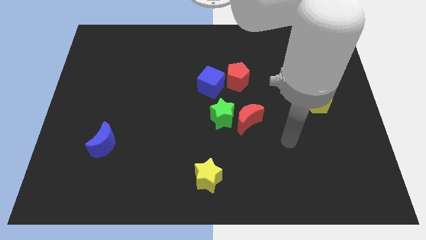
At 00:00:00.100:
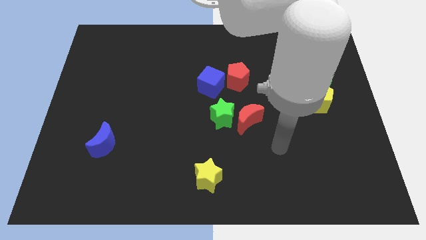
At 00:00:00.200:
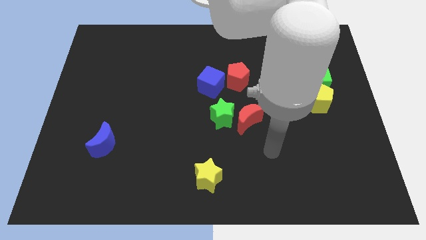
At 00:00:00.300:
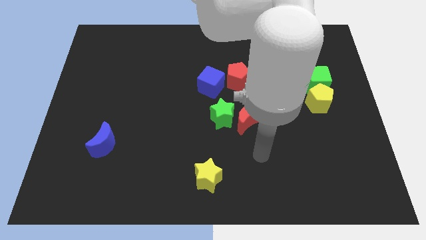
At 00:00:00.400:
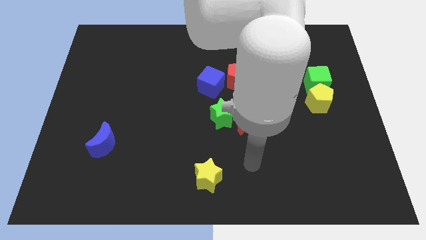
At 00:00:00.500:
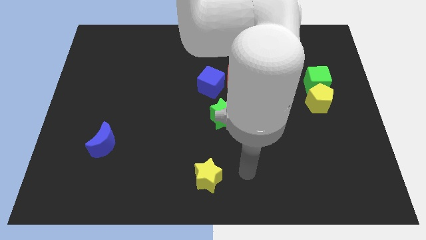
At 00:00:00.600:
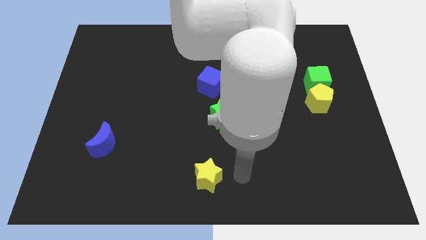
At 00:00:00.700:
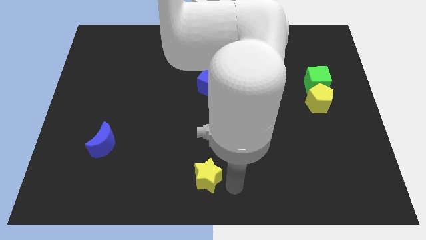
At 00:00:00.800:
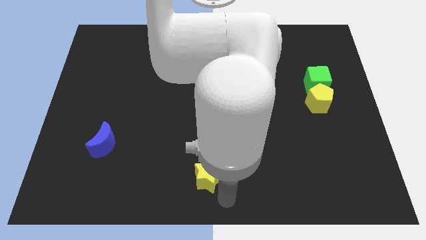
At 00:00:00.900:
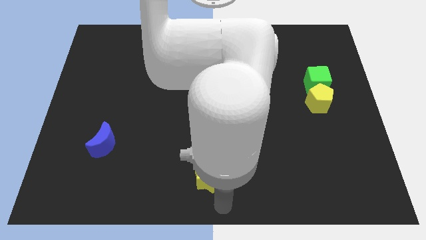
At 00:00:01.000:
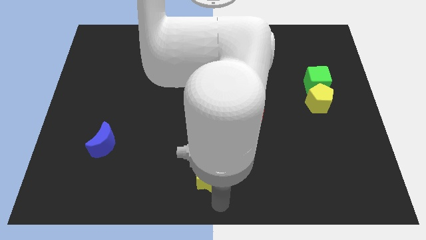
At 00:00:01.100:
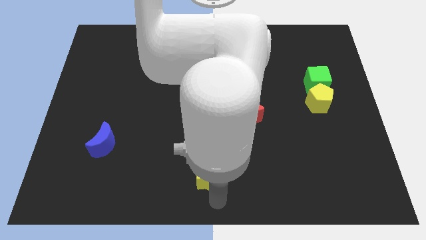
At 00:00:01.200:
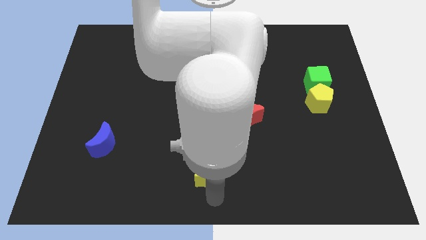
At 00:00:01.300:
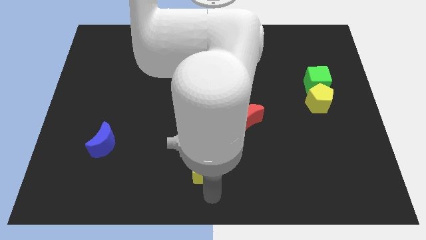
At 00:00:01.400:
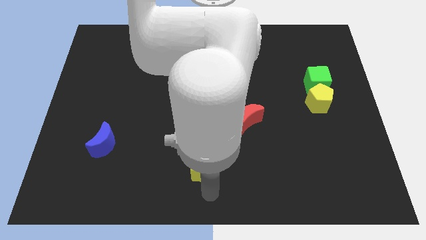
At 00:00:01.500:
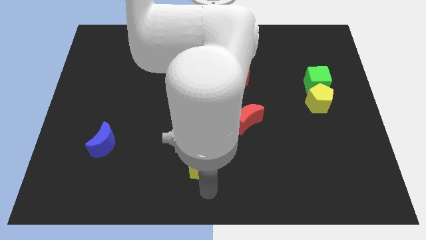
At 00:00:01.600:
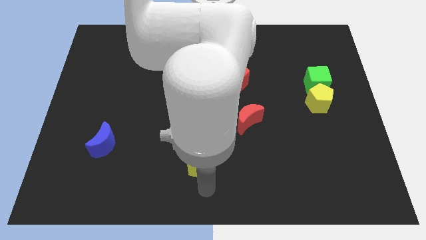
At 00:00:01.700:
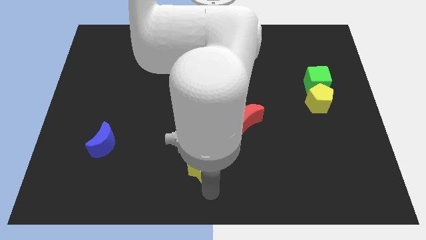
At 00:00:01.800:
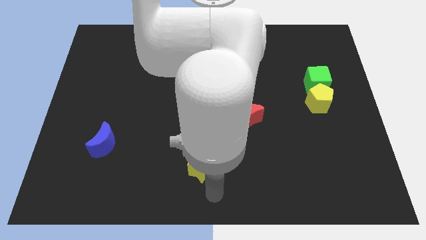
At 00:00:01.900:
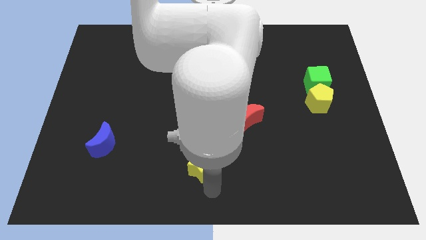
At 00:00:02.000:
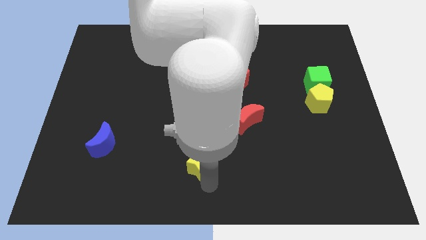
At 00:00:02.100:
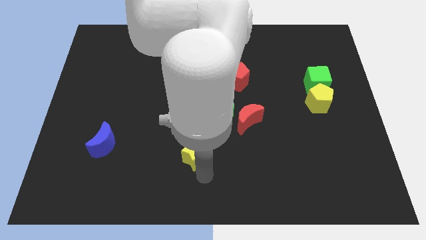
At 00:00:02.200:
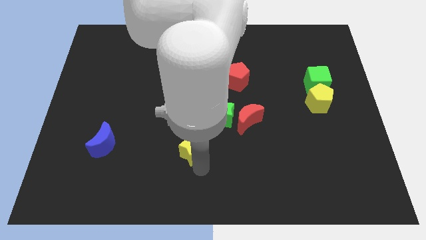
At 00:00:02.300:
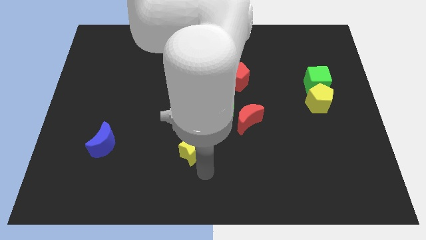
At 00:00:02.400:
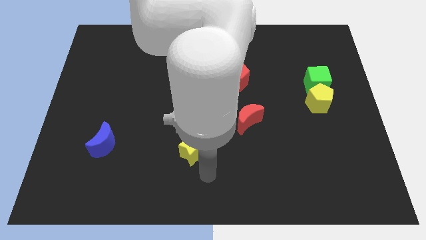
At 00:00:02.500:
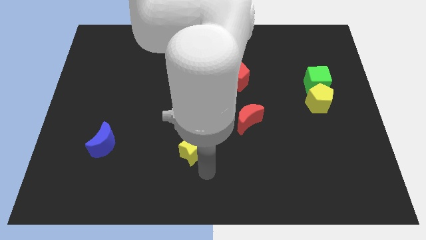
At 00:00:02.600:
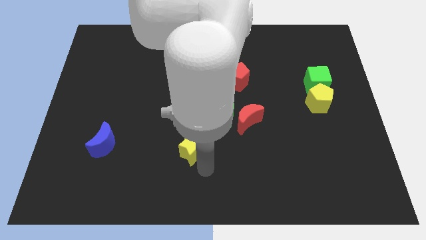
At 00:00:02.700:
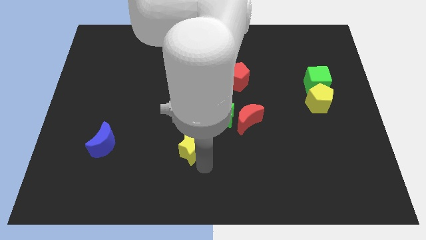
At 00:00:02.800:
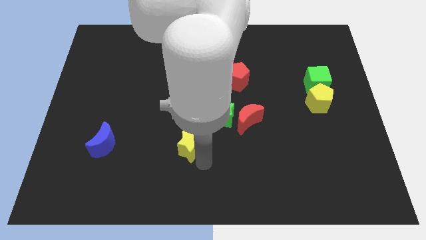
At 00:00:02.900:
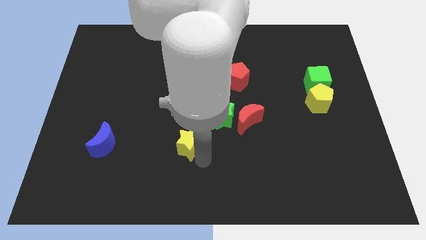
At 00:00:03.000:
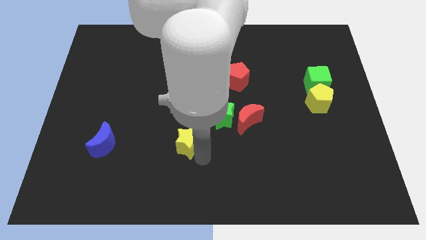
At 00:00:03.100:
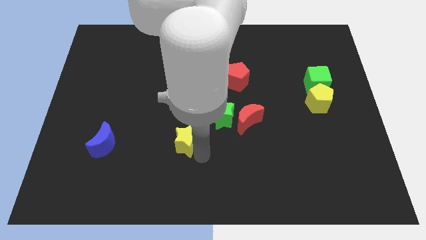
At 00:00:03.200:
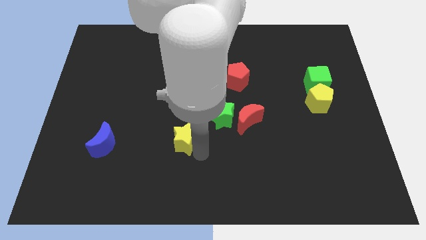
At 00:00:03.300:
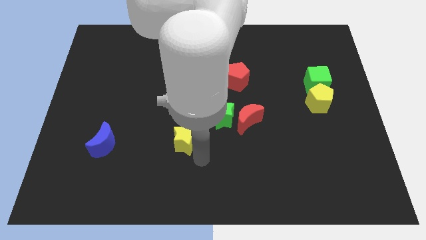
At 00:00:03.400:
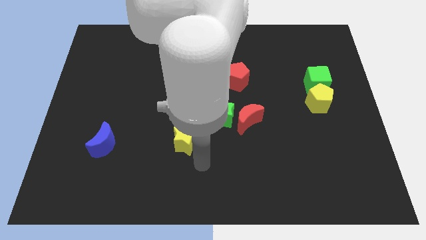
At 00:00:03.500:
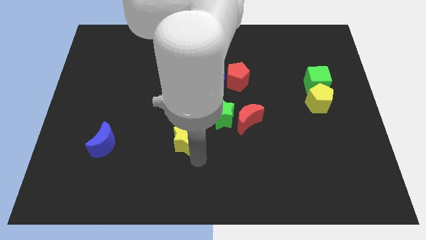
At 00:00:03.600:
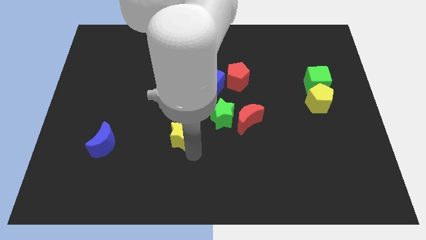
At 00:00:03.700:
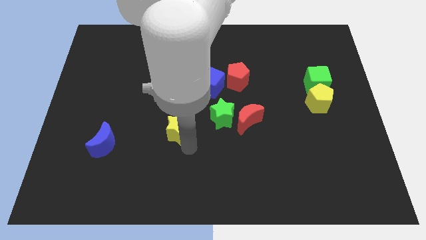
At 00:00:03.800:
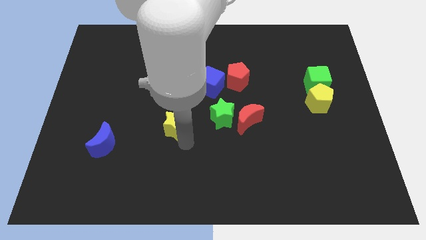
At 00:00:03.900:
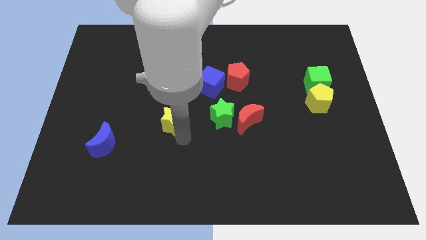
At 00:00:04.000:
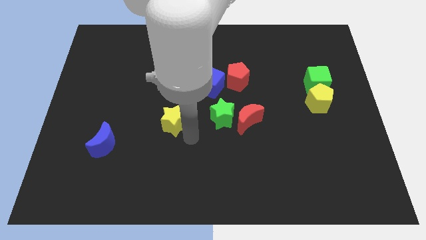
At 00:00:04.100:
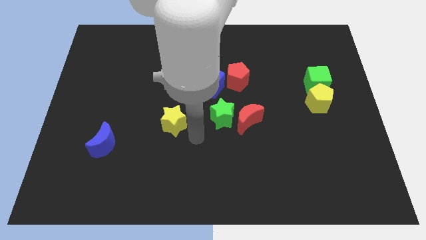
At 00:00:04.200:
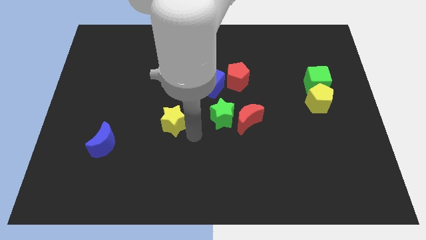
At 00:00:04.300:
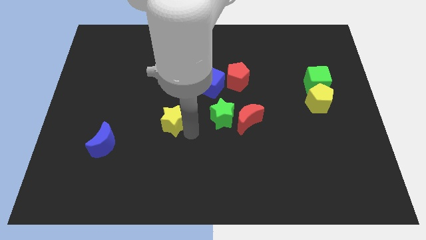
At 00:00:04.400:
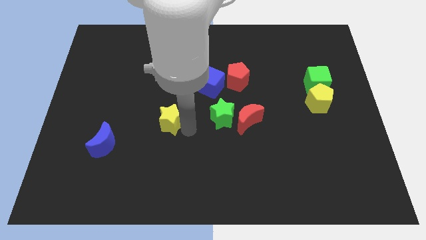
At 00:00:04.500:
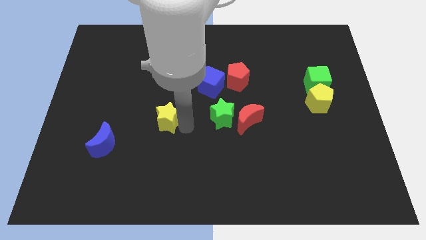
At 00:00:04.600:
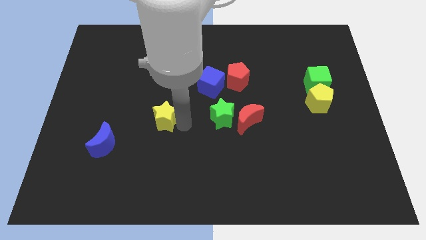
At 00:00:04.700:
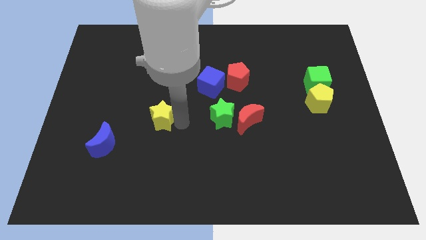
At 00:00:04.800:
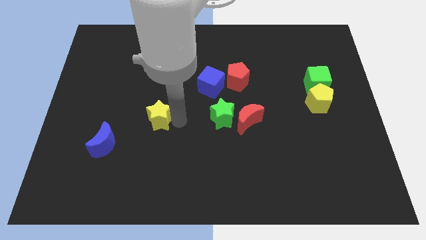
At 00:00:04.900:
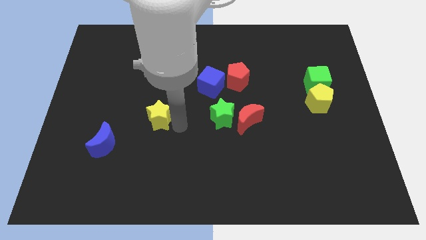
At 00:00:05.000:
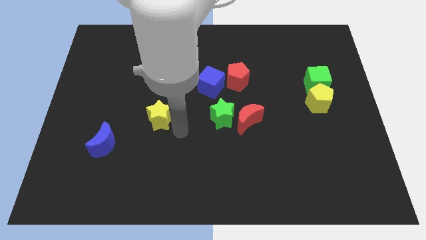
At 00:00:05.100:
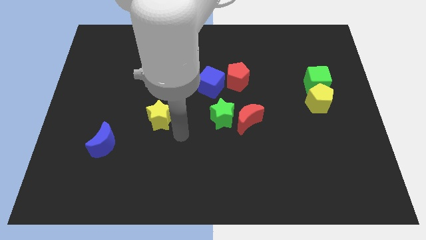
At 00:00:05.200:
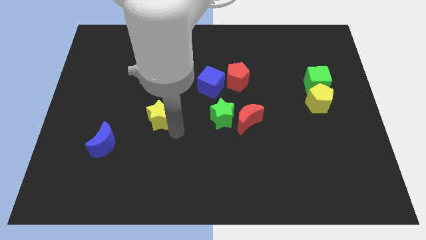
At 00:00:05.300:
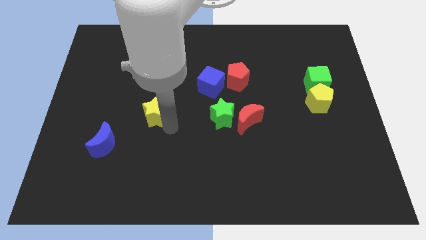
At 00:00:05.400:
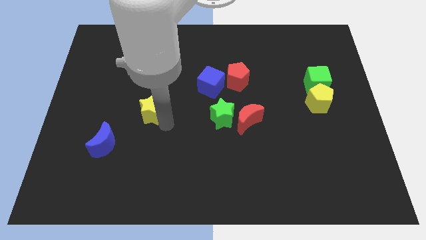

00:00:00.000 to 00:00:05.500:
move the yellow star up and to the left

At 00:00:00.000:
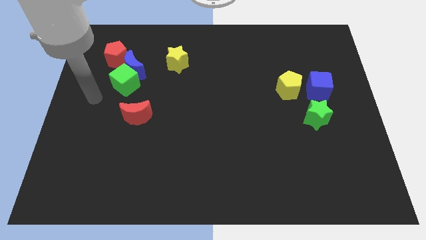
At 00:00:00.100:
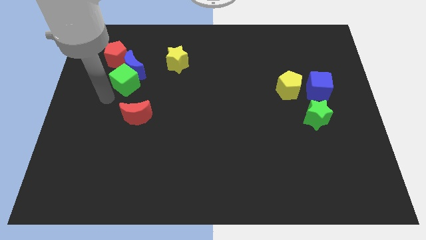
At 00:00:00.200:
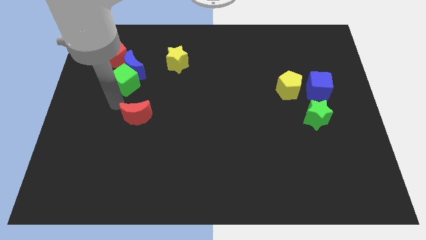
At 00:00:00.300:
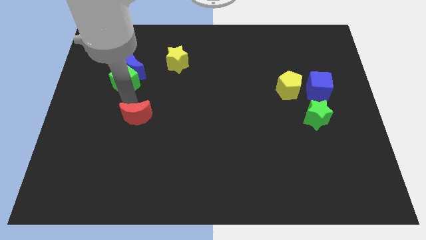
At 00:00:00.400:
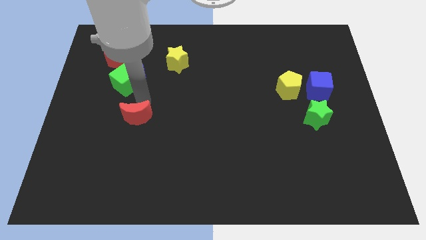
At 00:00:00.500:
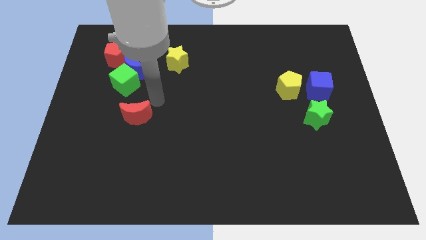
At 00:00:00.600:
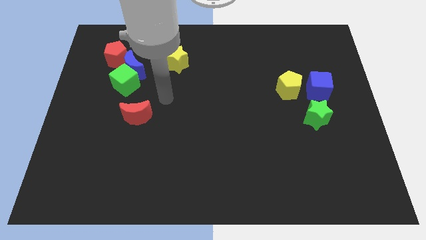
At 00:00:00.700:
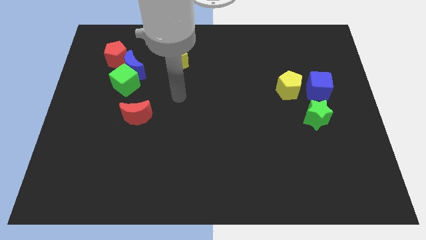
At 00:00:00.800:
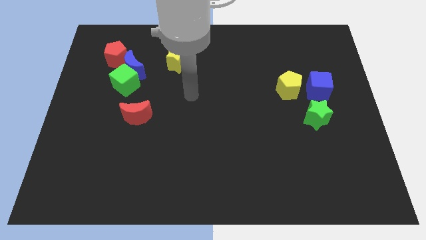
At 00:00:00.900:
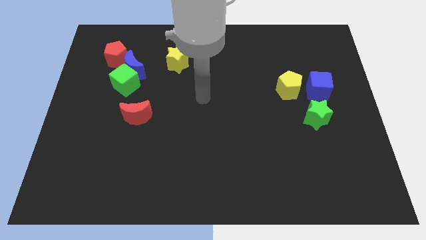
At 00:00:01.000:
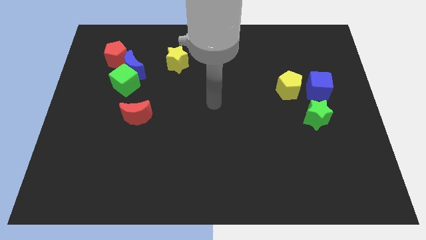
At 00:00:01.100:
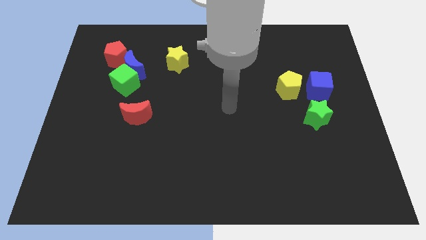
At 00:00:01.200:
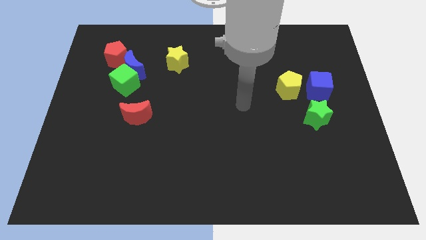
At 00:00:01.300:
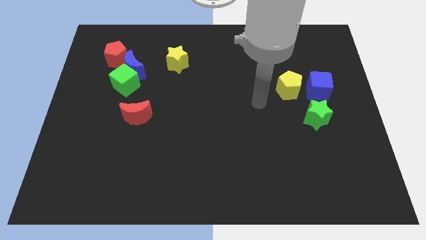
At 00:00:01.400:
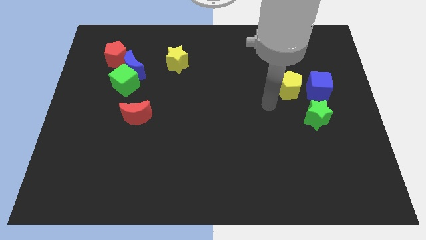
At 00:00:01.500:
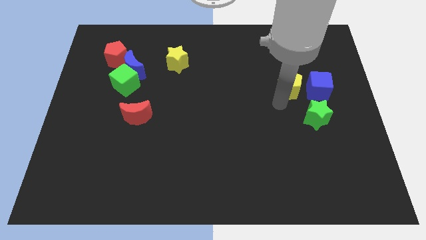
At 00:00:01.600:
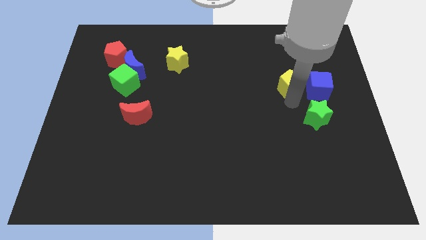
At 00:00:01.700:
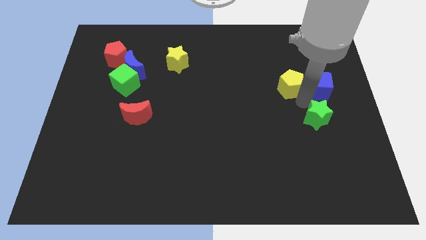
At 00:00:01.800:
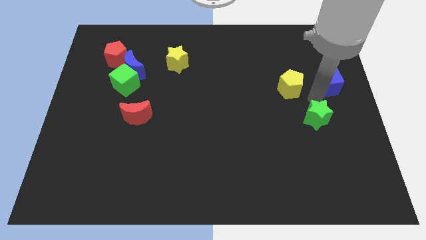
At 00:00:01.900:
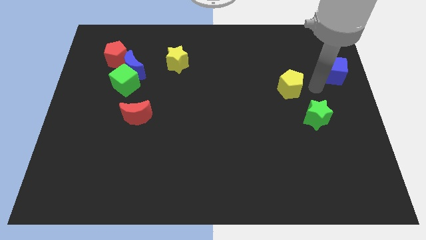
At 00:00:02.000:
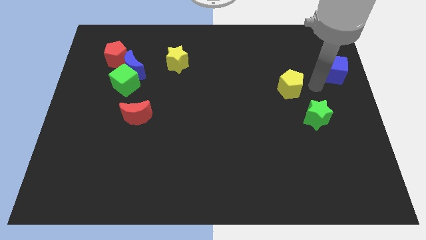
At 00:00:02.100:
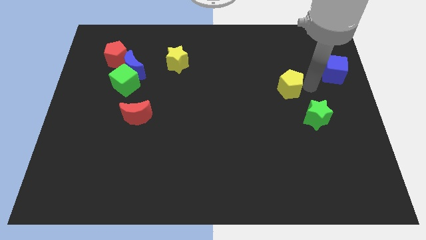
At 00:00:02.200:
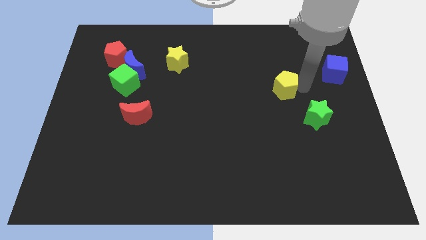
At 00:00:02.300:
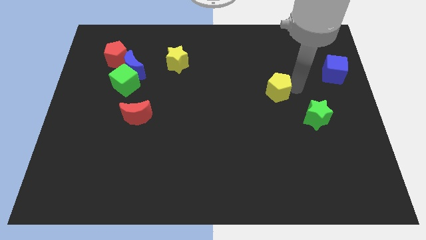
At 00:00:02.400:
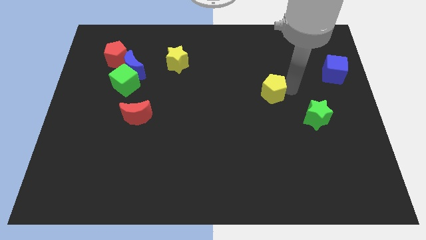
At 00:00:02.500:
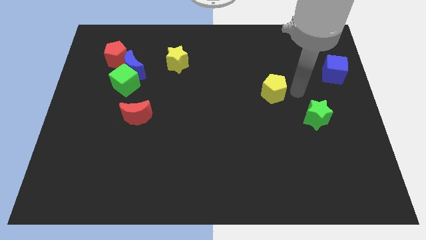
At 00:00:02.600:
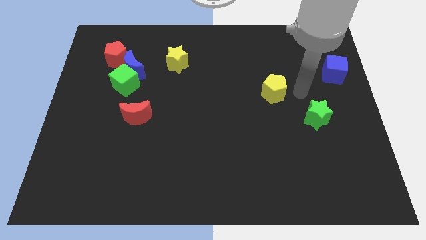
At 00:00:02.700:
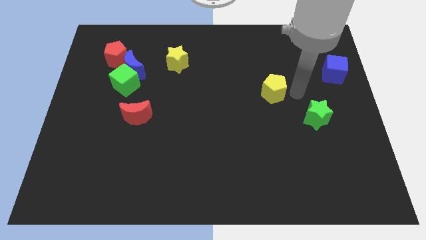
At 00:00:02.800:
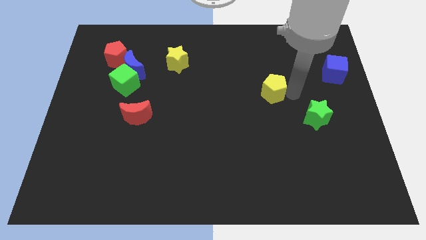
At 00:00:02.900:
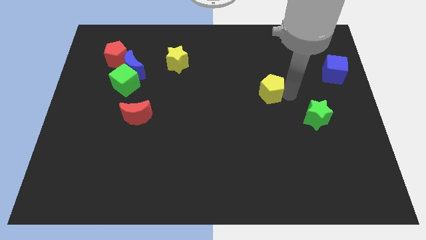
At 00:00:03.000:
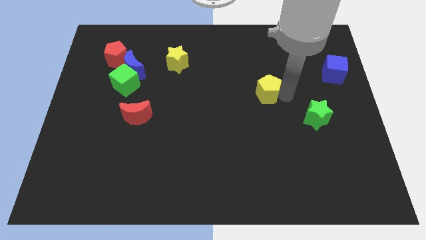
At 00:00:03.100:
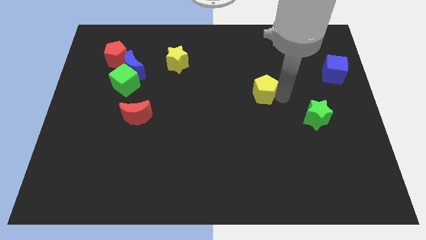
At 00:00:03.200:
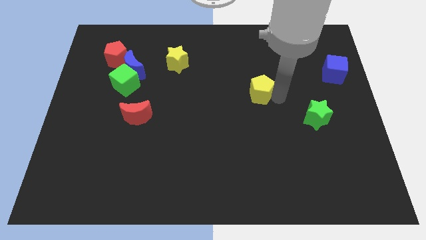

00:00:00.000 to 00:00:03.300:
move the yellow pentagon left a little
